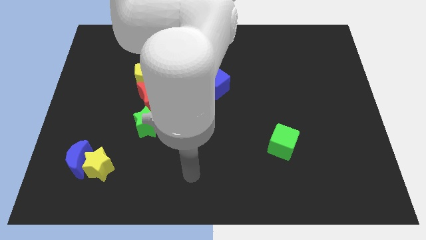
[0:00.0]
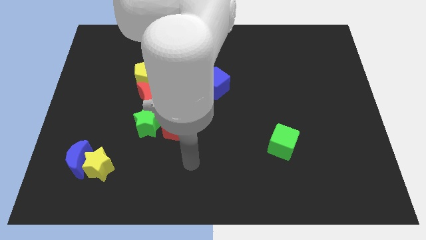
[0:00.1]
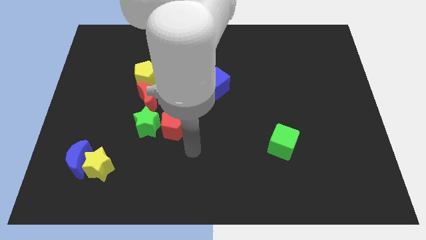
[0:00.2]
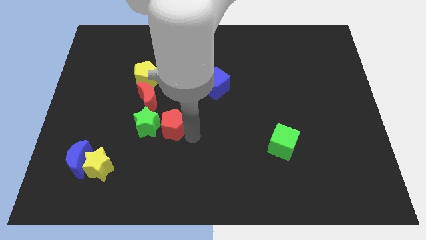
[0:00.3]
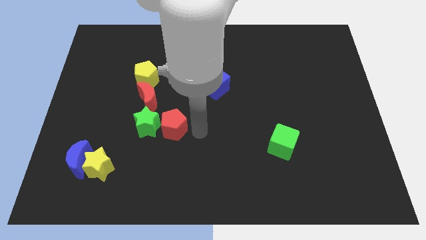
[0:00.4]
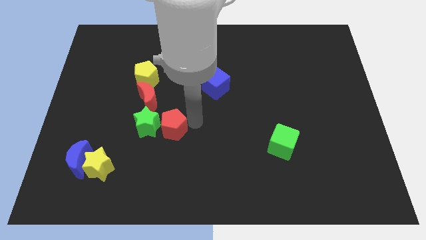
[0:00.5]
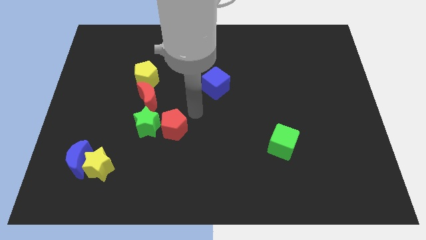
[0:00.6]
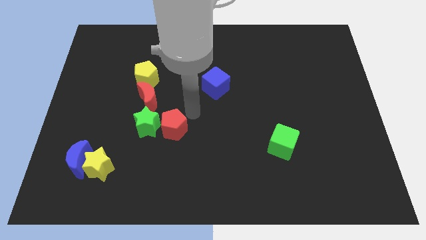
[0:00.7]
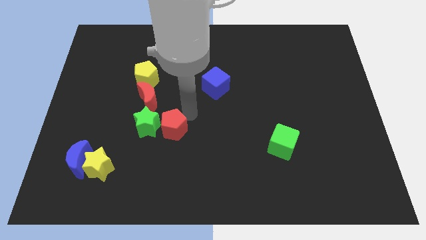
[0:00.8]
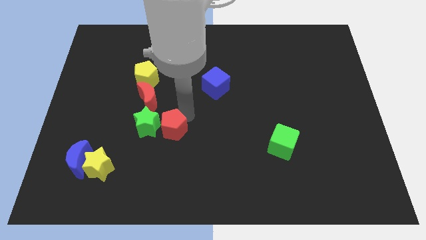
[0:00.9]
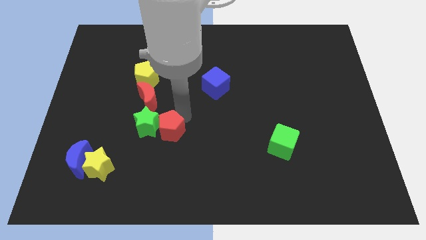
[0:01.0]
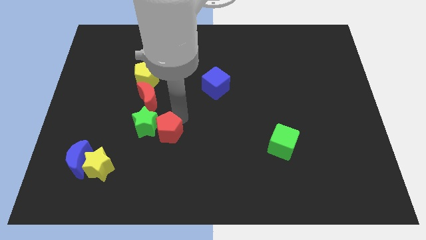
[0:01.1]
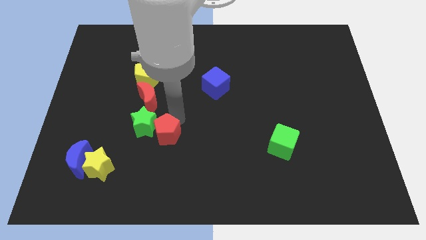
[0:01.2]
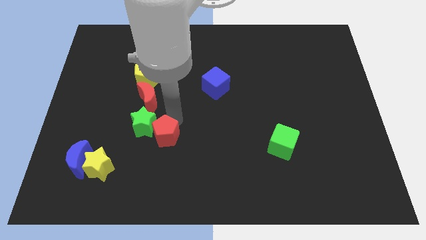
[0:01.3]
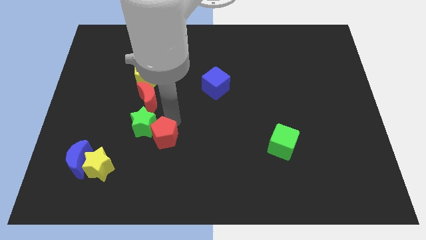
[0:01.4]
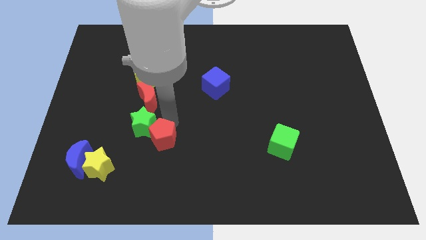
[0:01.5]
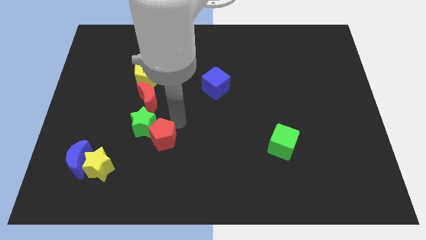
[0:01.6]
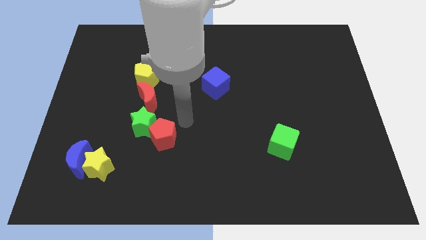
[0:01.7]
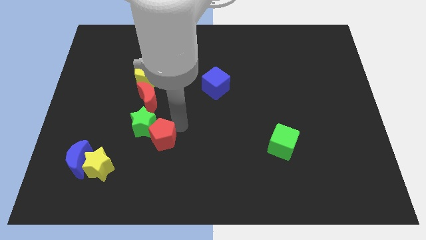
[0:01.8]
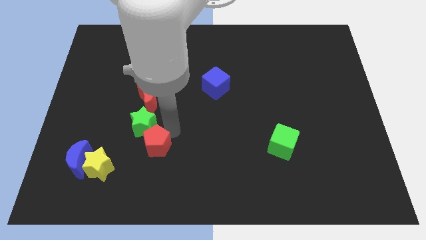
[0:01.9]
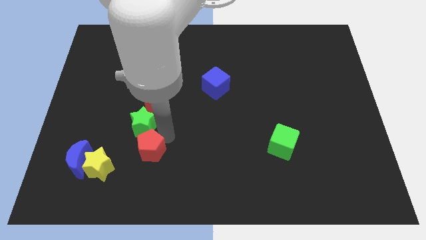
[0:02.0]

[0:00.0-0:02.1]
push the red pentagon to the right side of the blue moon

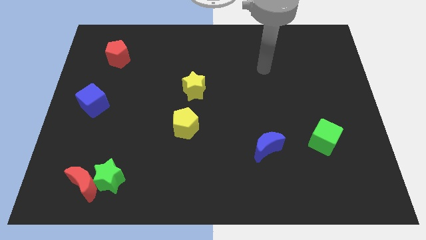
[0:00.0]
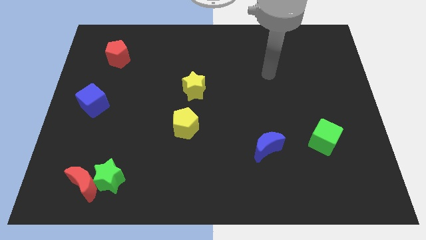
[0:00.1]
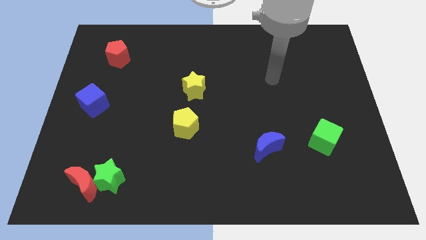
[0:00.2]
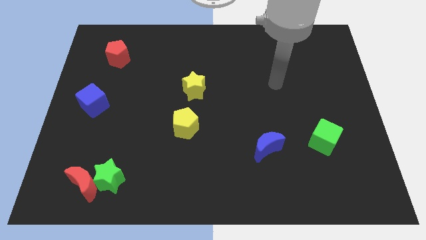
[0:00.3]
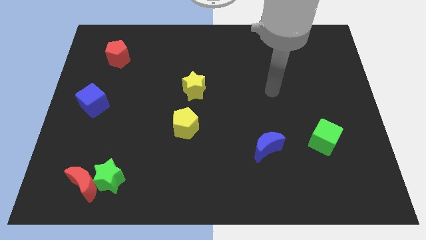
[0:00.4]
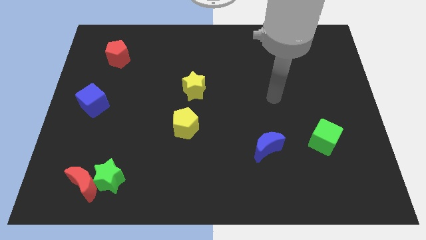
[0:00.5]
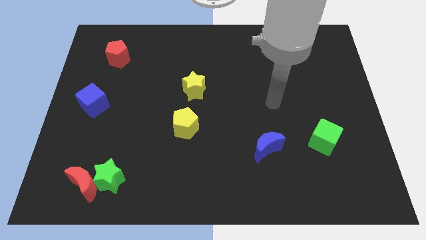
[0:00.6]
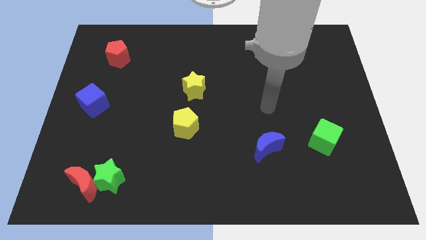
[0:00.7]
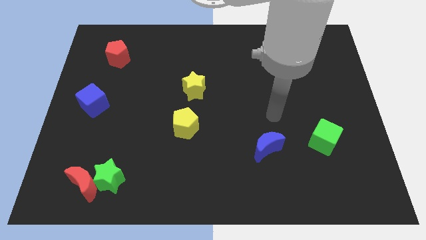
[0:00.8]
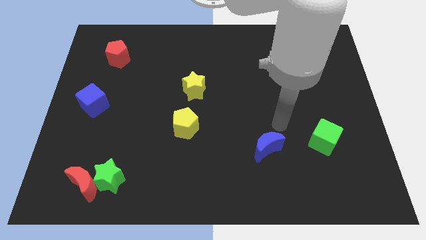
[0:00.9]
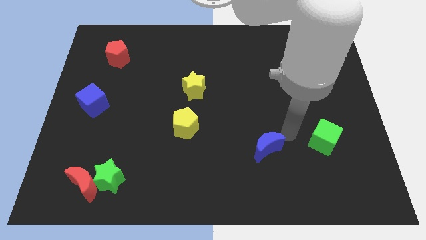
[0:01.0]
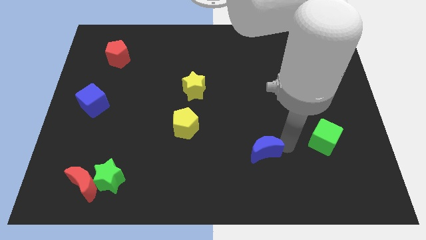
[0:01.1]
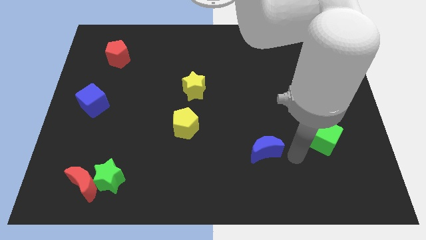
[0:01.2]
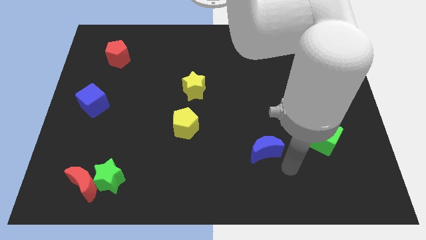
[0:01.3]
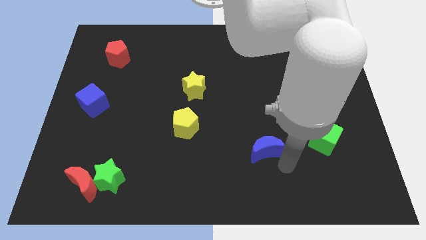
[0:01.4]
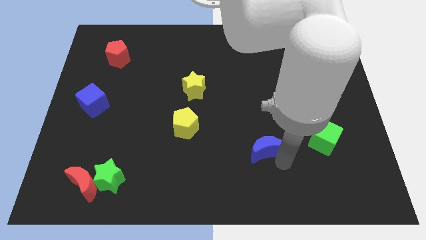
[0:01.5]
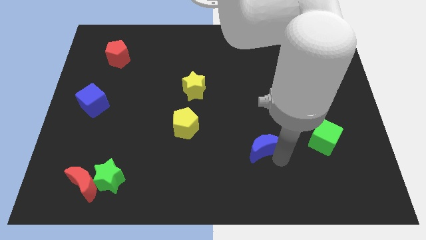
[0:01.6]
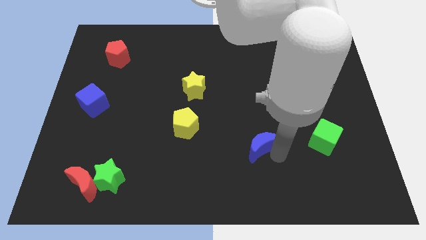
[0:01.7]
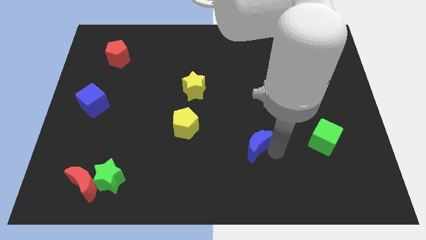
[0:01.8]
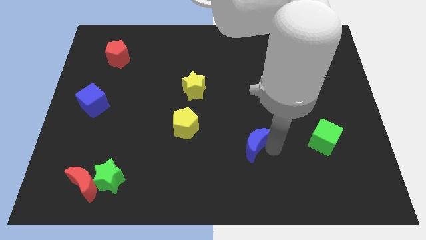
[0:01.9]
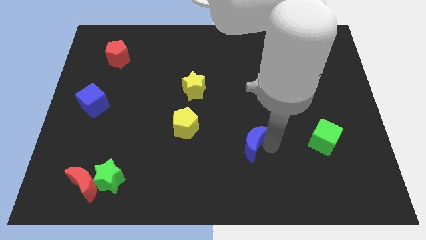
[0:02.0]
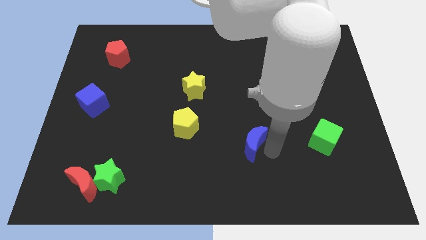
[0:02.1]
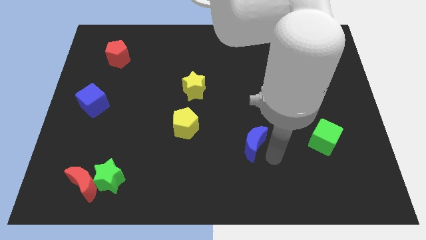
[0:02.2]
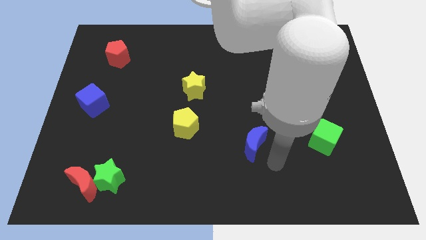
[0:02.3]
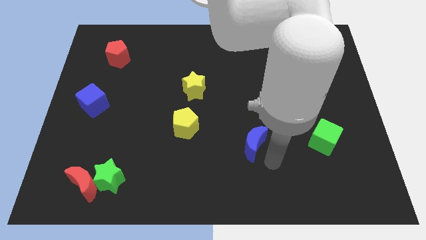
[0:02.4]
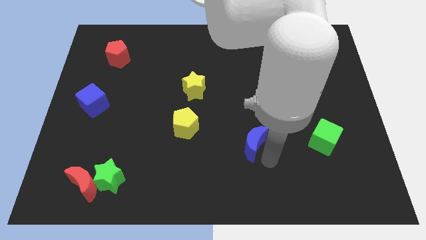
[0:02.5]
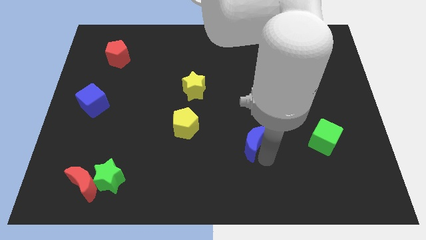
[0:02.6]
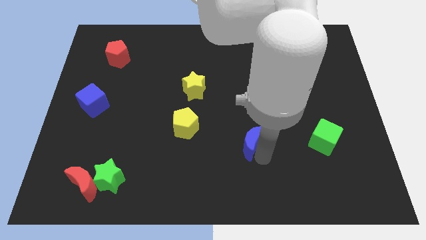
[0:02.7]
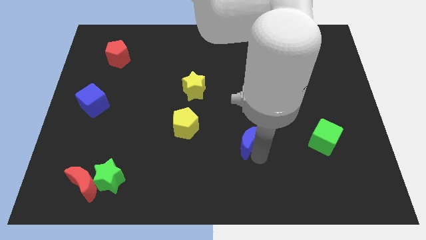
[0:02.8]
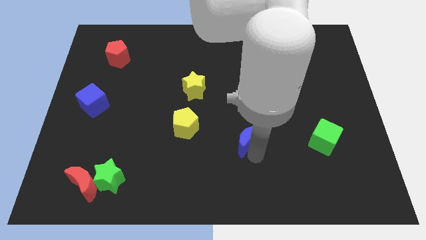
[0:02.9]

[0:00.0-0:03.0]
put the blue moon just right of the yellow pentagon

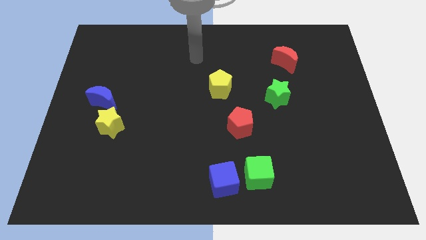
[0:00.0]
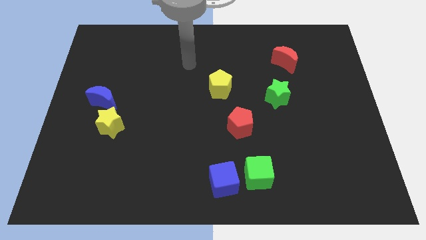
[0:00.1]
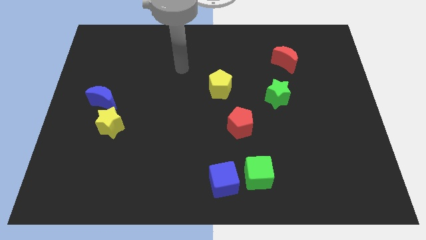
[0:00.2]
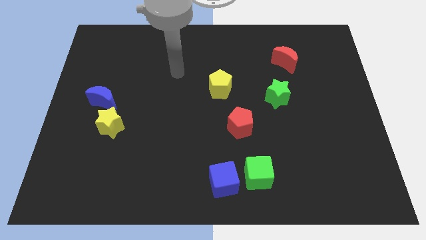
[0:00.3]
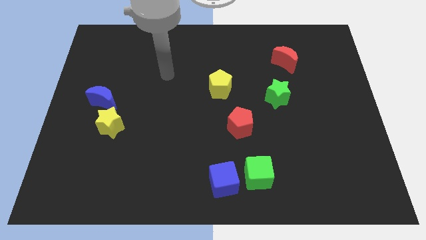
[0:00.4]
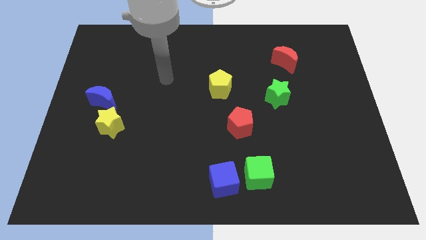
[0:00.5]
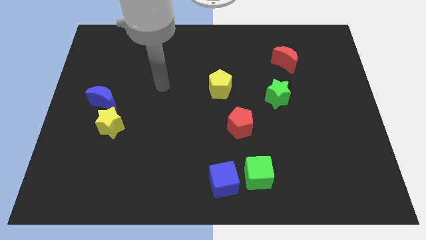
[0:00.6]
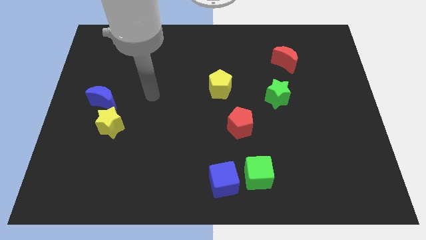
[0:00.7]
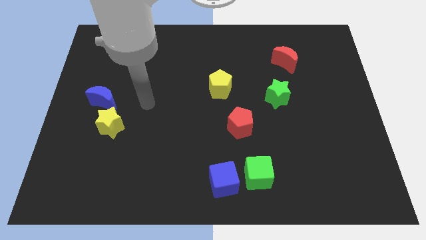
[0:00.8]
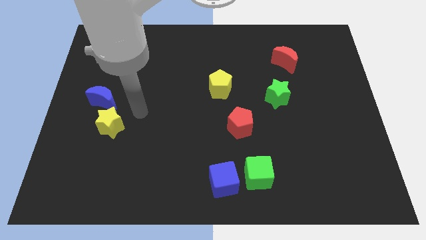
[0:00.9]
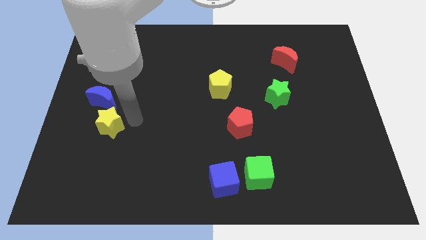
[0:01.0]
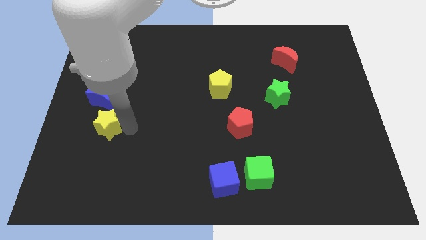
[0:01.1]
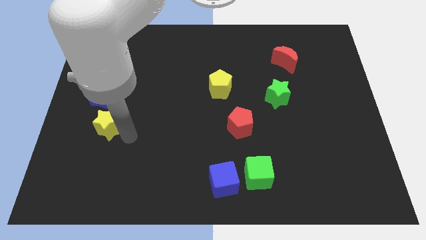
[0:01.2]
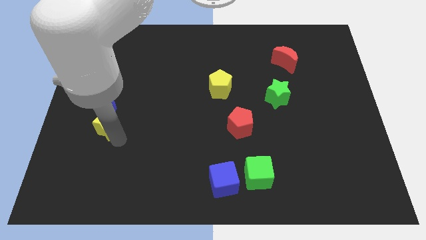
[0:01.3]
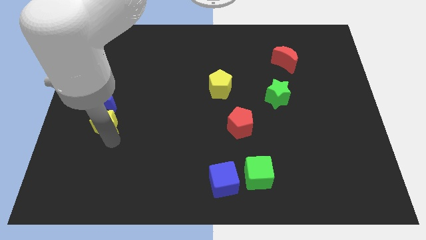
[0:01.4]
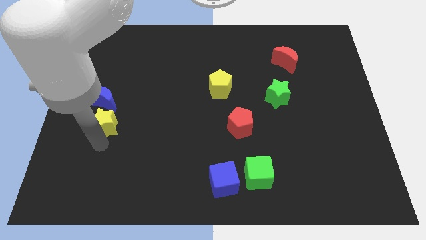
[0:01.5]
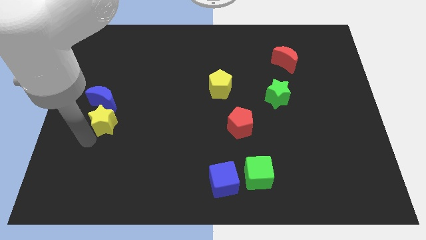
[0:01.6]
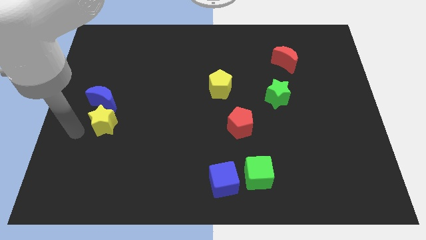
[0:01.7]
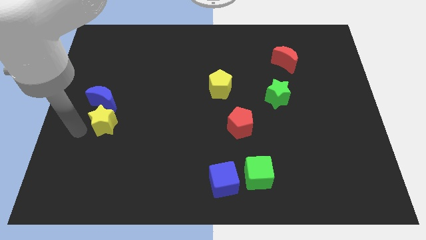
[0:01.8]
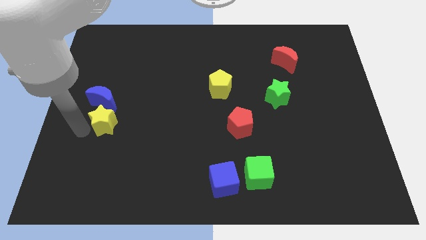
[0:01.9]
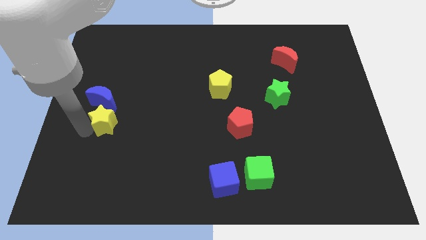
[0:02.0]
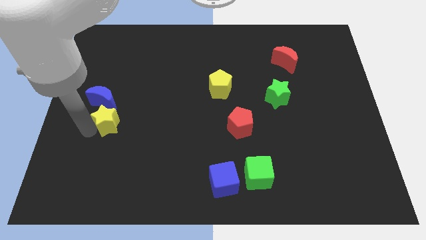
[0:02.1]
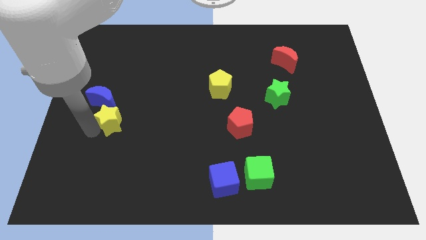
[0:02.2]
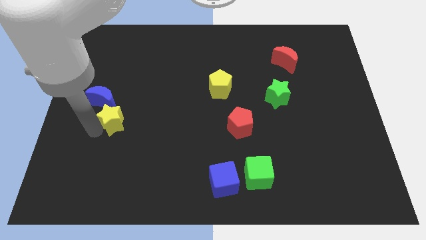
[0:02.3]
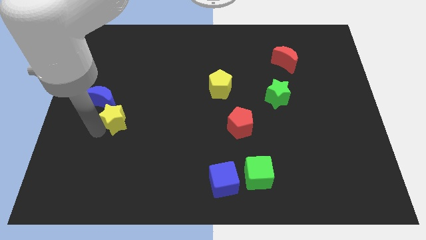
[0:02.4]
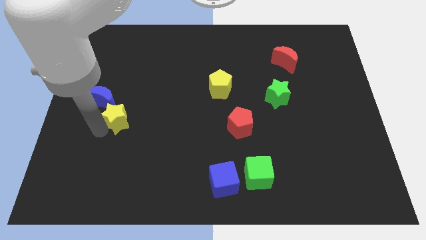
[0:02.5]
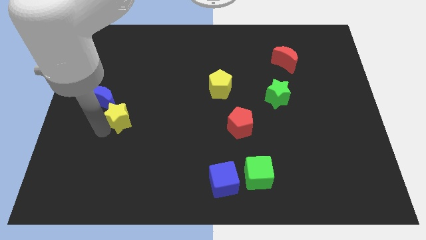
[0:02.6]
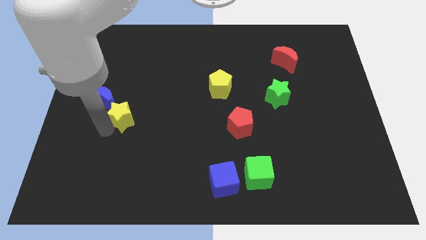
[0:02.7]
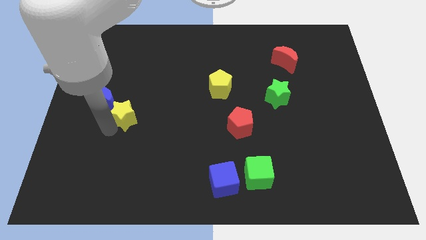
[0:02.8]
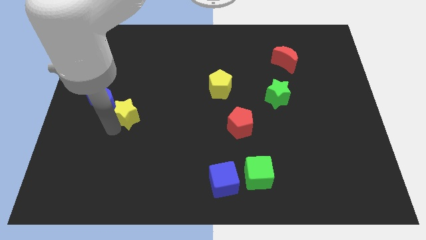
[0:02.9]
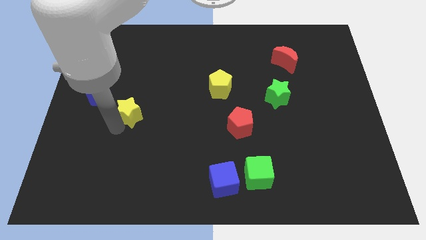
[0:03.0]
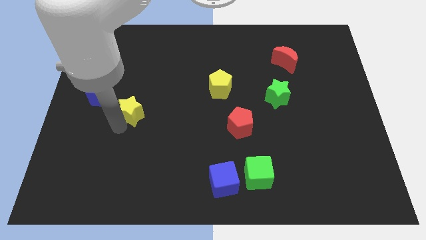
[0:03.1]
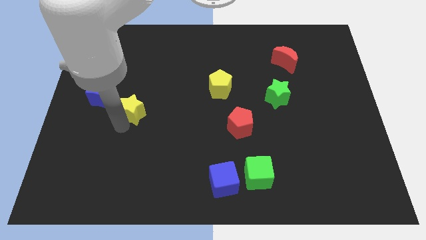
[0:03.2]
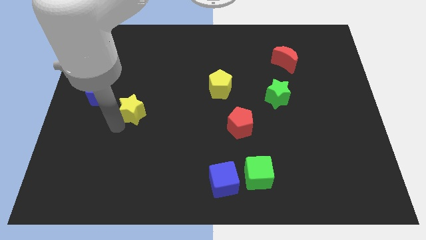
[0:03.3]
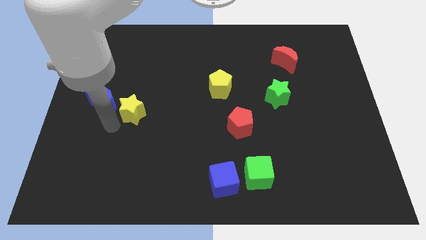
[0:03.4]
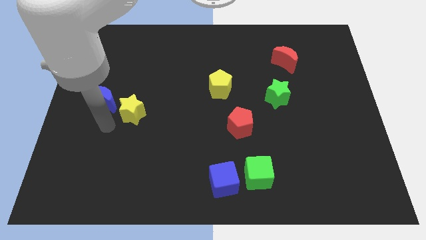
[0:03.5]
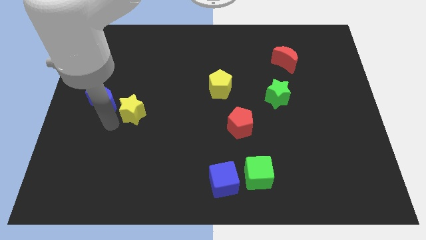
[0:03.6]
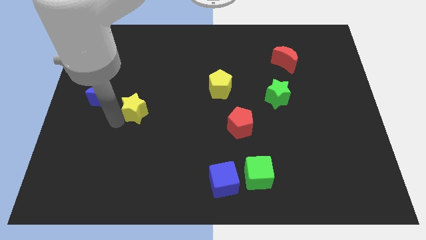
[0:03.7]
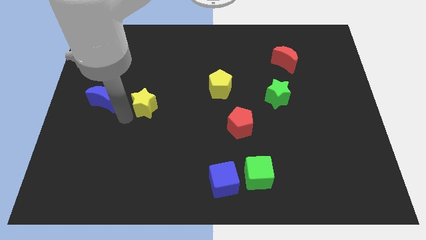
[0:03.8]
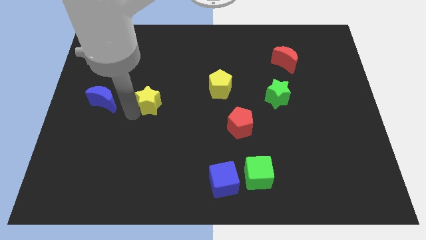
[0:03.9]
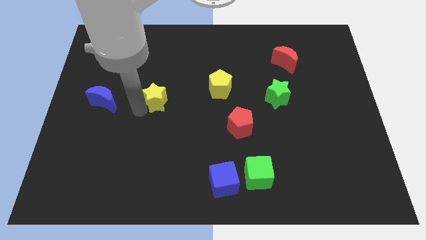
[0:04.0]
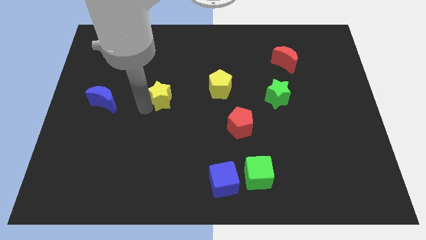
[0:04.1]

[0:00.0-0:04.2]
put the yellow star left of the yellow pentagon
